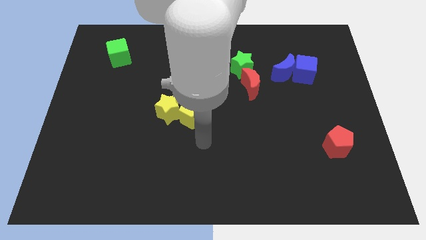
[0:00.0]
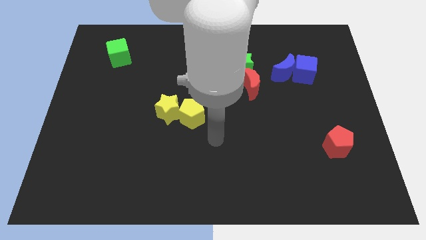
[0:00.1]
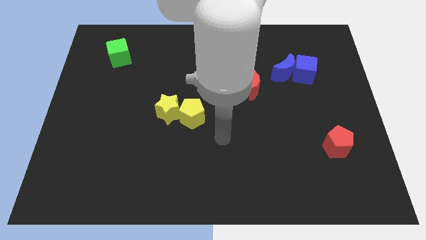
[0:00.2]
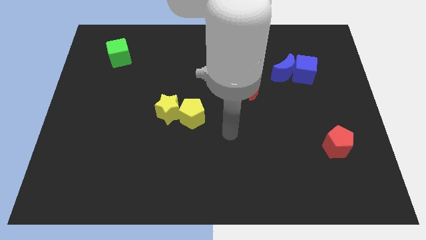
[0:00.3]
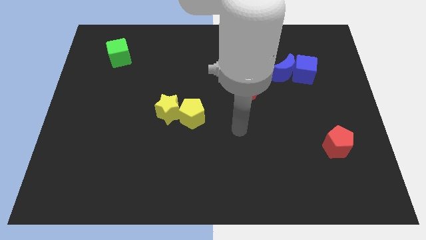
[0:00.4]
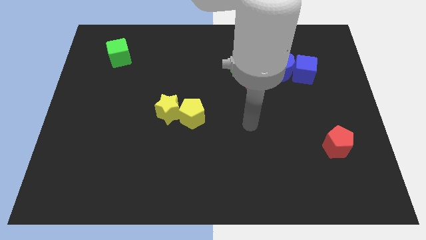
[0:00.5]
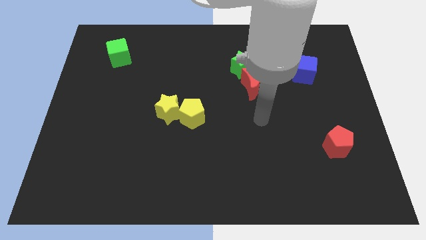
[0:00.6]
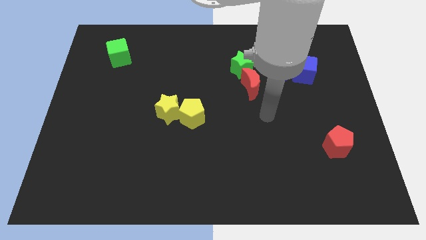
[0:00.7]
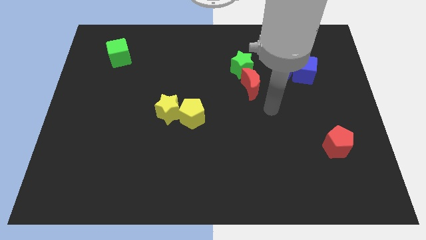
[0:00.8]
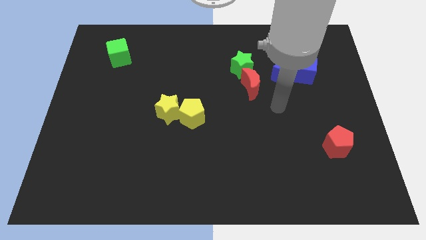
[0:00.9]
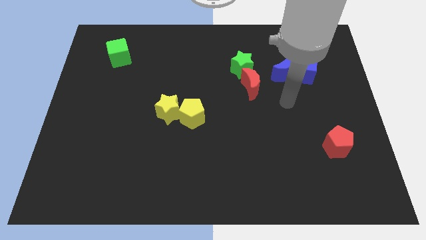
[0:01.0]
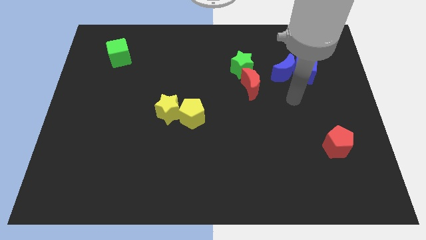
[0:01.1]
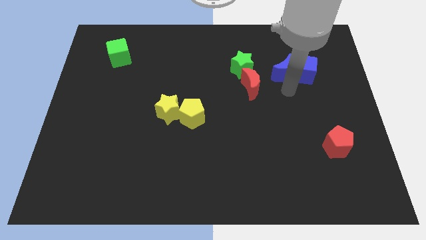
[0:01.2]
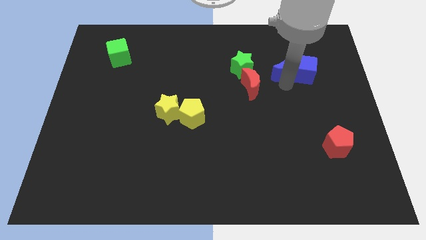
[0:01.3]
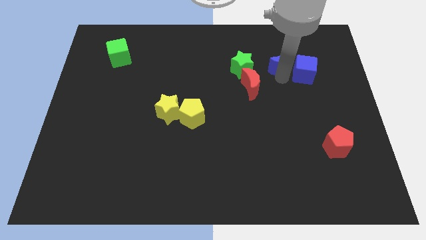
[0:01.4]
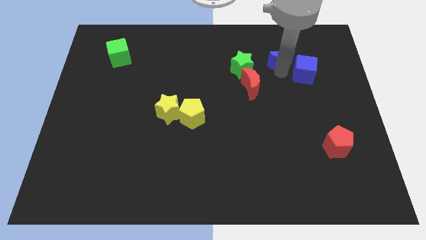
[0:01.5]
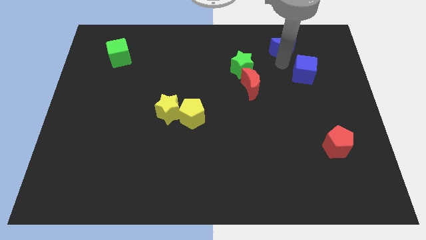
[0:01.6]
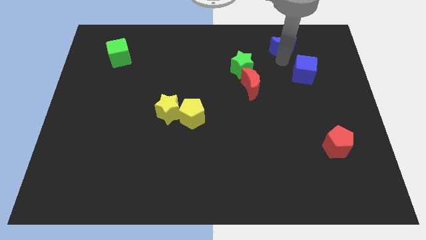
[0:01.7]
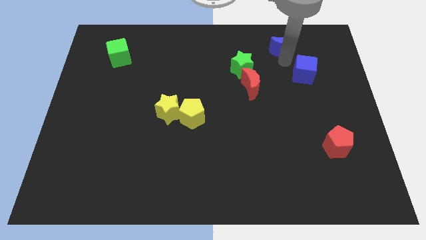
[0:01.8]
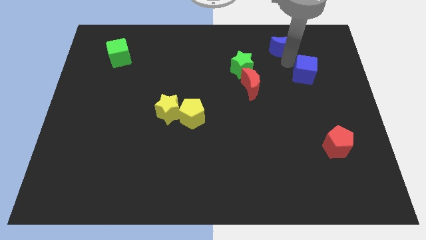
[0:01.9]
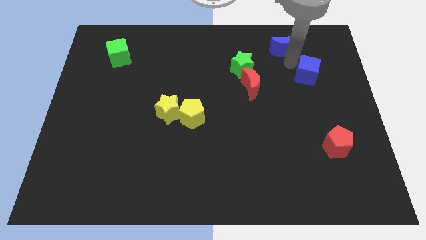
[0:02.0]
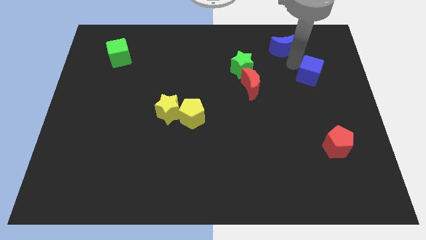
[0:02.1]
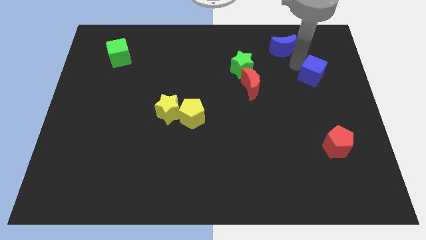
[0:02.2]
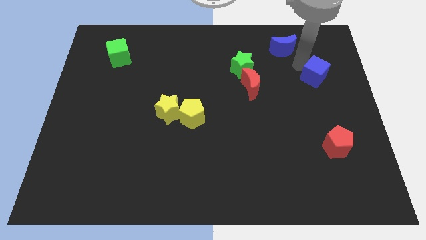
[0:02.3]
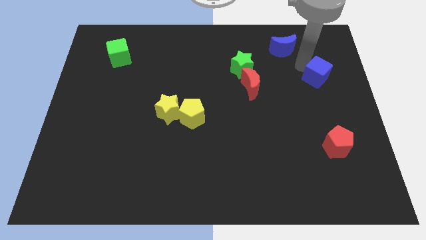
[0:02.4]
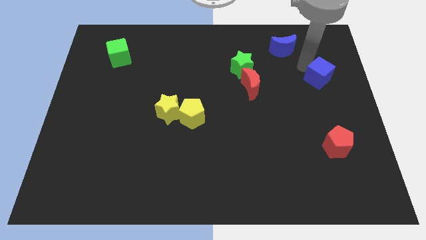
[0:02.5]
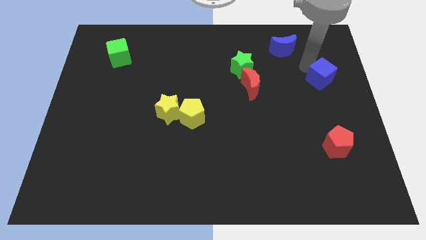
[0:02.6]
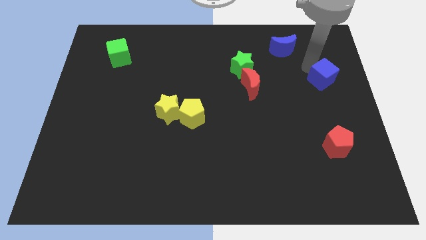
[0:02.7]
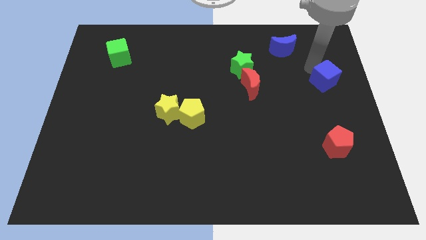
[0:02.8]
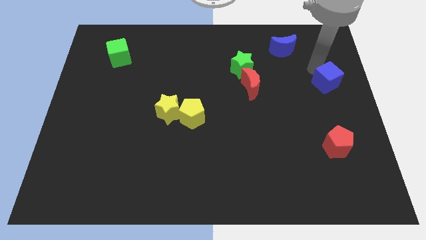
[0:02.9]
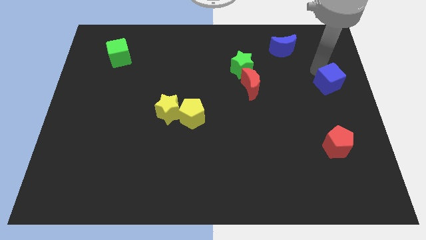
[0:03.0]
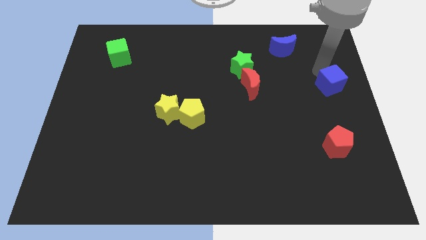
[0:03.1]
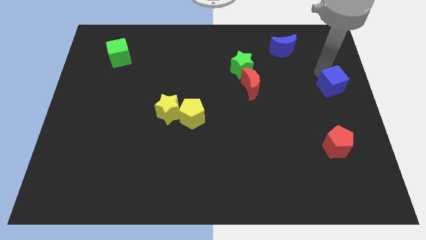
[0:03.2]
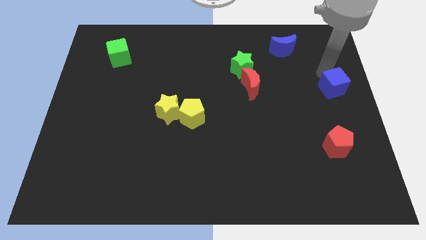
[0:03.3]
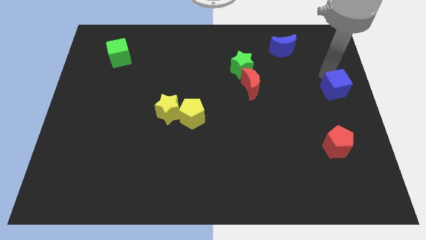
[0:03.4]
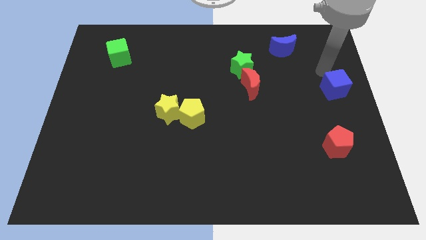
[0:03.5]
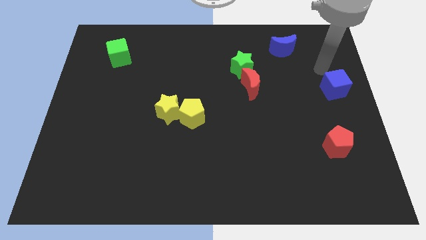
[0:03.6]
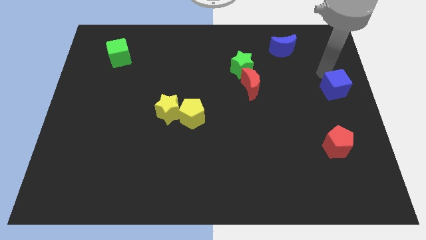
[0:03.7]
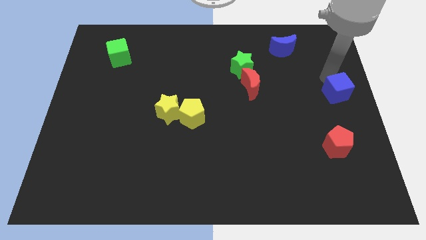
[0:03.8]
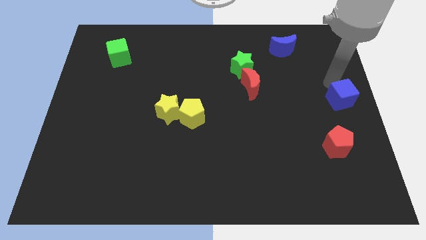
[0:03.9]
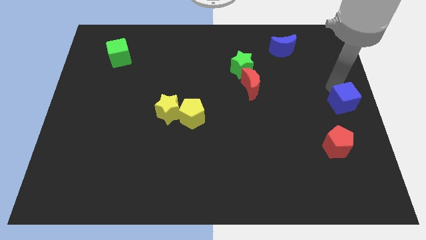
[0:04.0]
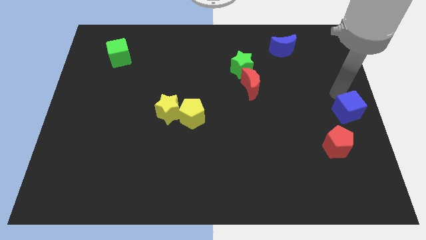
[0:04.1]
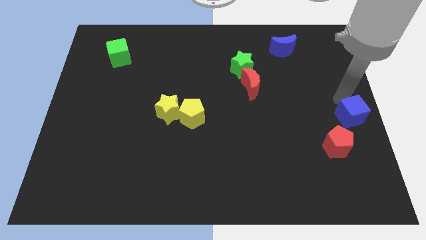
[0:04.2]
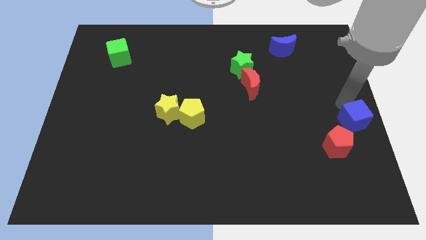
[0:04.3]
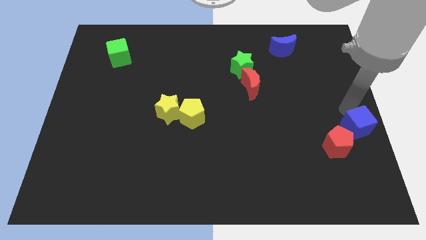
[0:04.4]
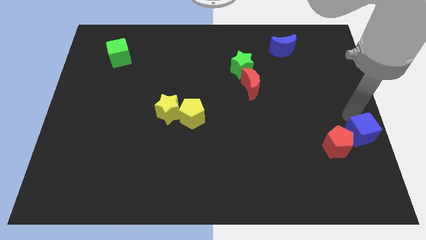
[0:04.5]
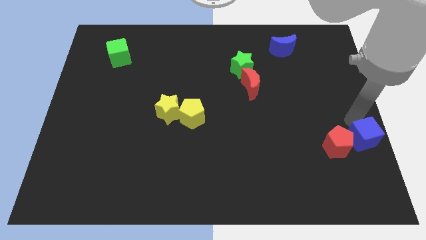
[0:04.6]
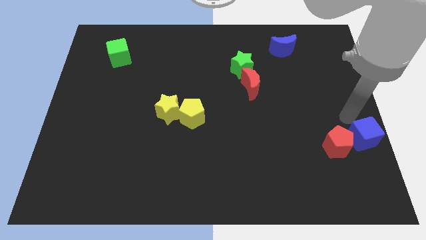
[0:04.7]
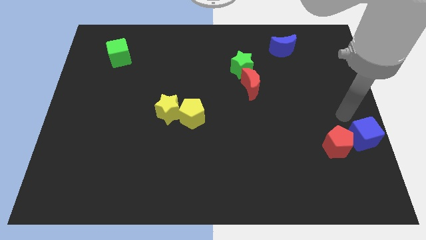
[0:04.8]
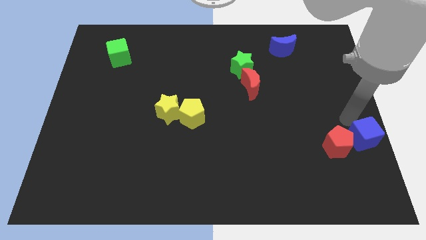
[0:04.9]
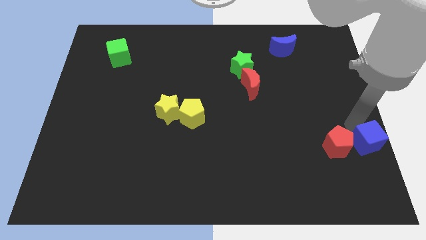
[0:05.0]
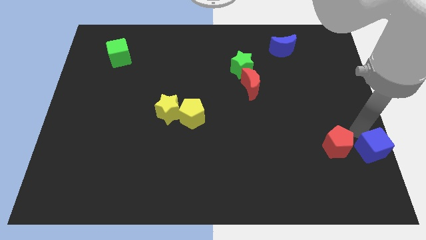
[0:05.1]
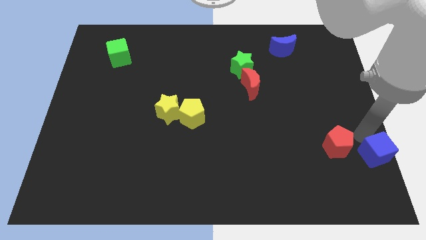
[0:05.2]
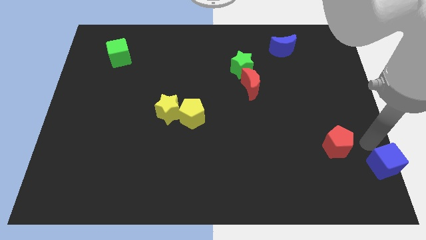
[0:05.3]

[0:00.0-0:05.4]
slide the blue cube to the bottom right

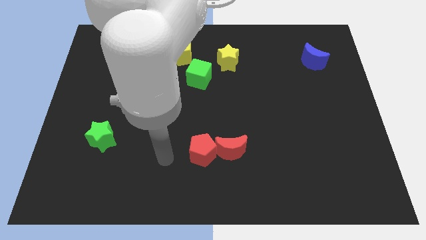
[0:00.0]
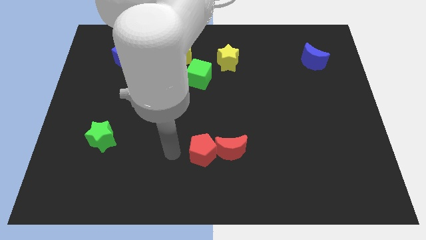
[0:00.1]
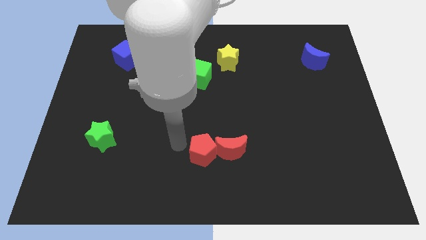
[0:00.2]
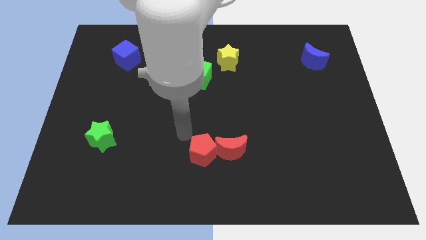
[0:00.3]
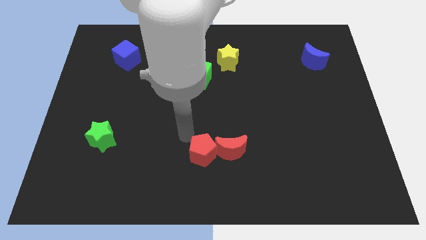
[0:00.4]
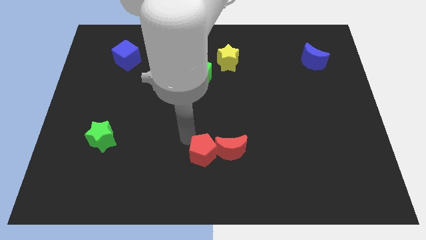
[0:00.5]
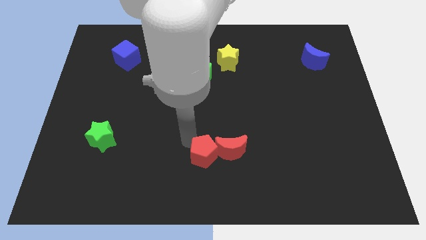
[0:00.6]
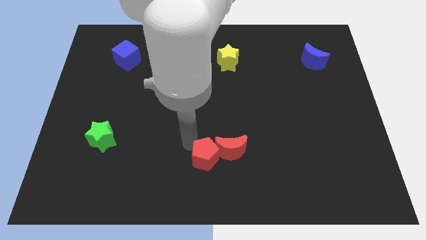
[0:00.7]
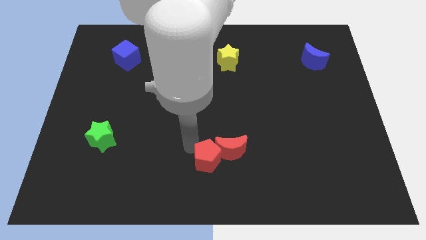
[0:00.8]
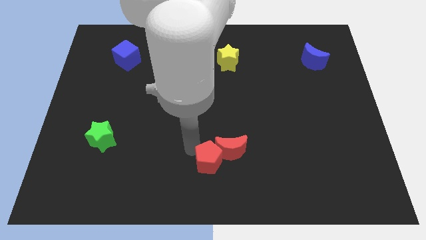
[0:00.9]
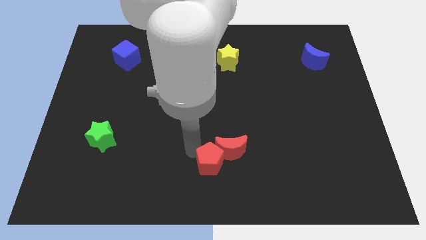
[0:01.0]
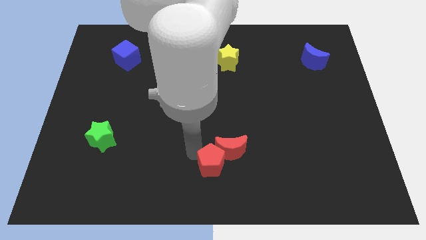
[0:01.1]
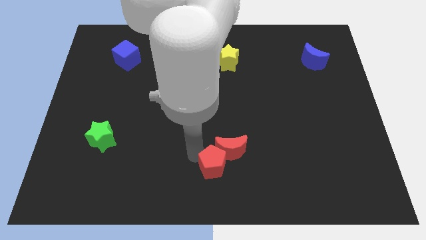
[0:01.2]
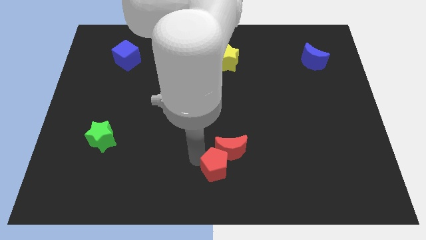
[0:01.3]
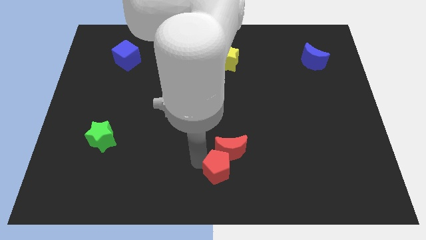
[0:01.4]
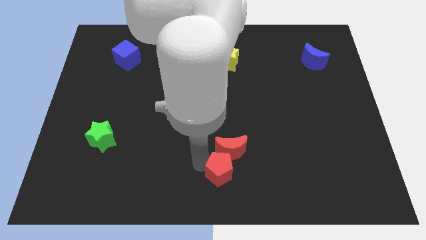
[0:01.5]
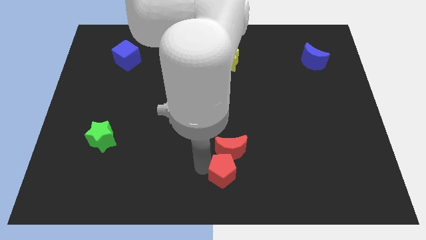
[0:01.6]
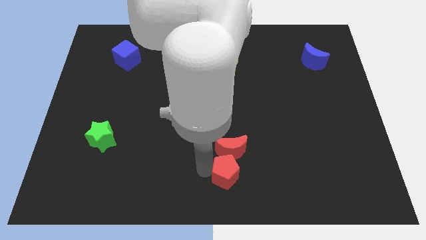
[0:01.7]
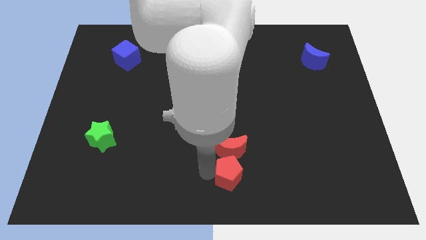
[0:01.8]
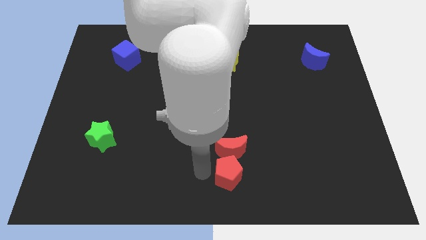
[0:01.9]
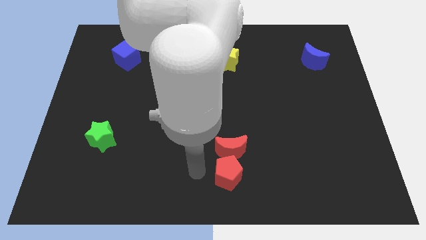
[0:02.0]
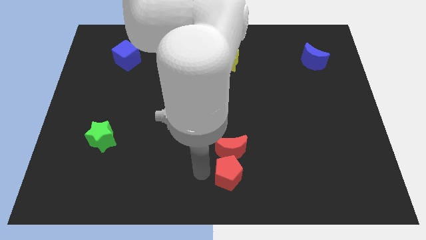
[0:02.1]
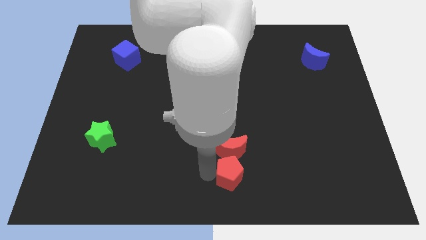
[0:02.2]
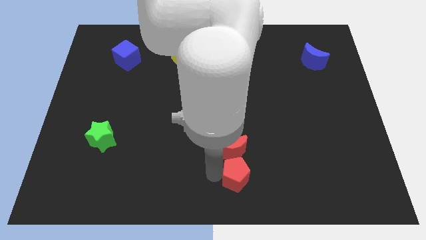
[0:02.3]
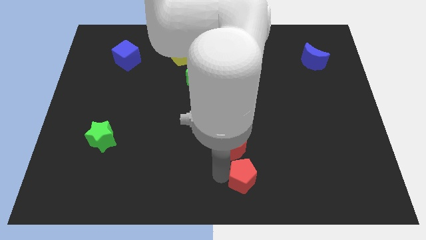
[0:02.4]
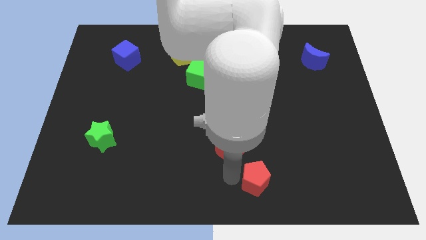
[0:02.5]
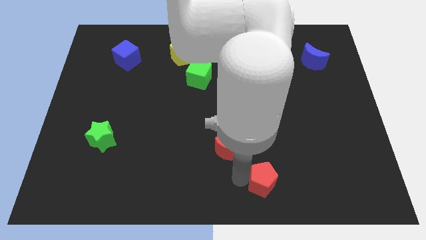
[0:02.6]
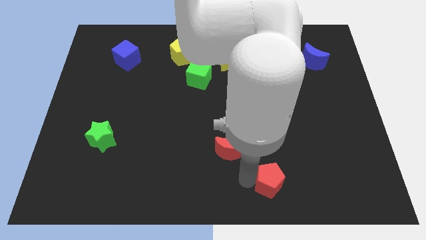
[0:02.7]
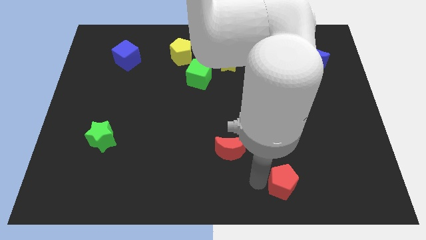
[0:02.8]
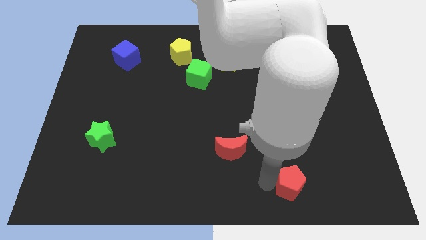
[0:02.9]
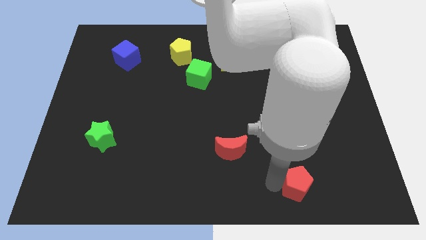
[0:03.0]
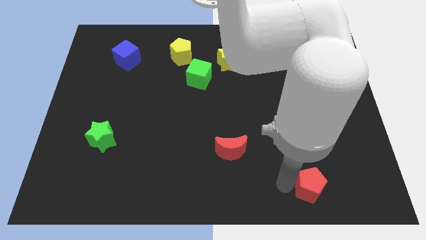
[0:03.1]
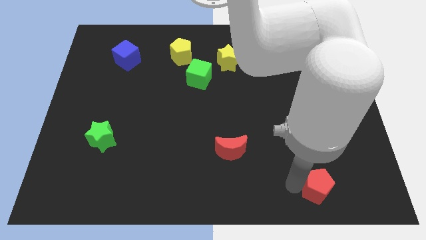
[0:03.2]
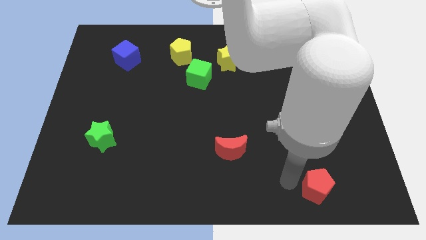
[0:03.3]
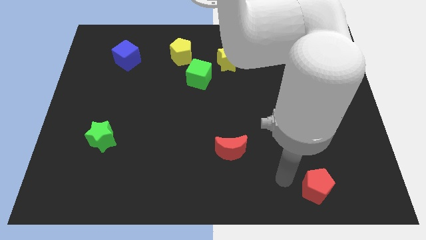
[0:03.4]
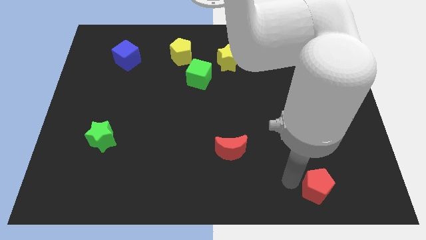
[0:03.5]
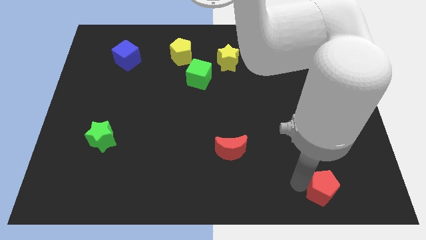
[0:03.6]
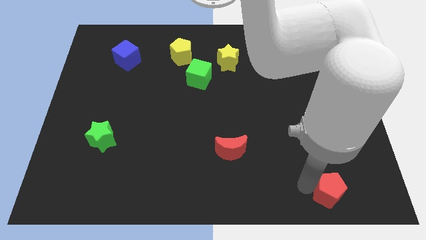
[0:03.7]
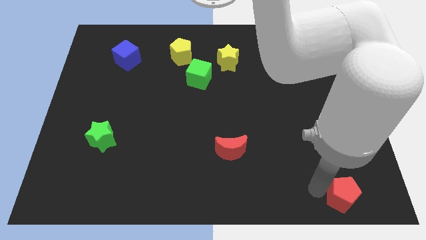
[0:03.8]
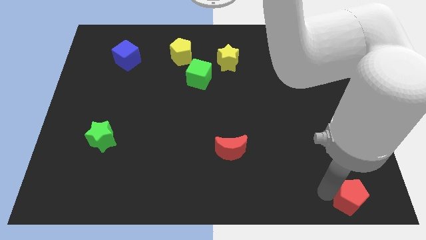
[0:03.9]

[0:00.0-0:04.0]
push the red pentagon to the bottom right of the board
